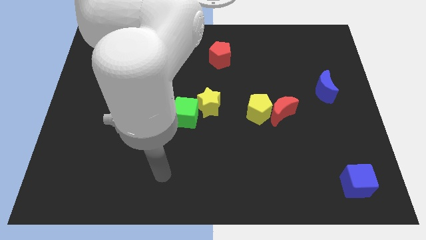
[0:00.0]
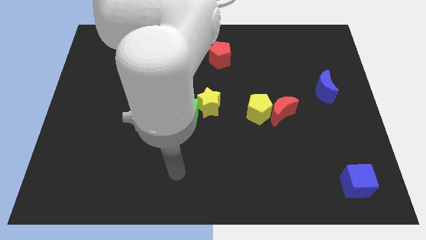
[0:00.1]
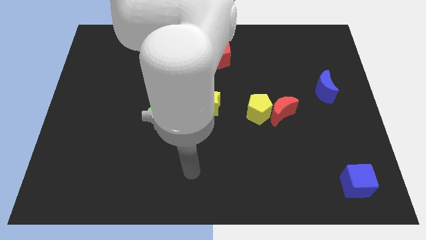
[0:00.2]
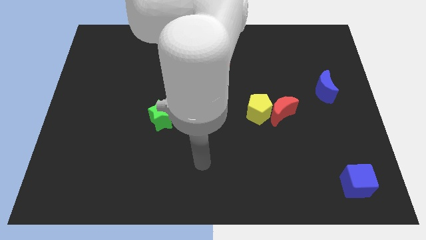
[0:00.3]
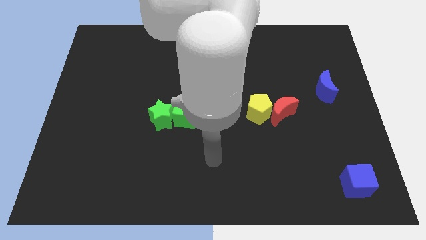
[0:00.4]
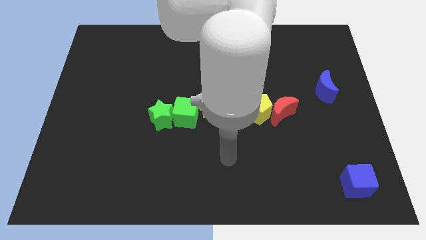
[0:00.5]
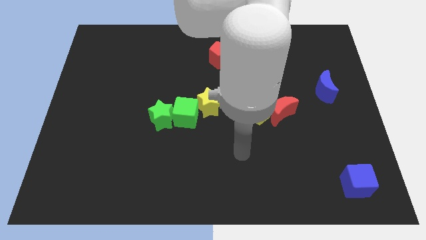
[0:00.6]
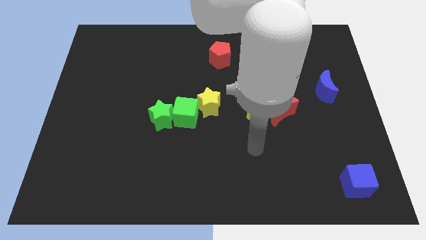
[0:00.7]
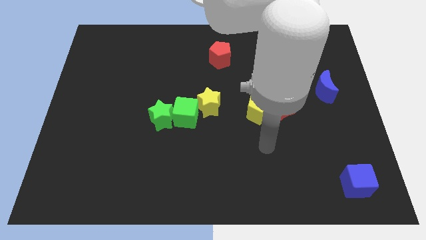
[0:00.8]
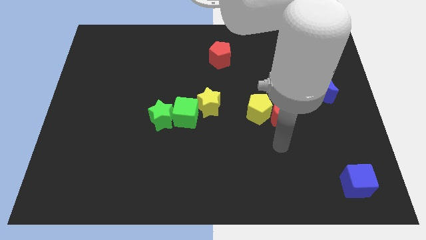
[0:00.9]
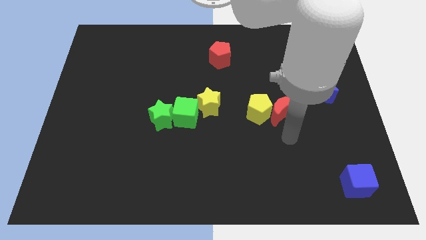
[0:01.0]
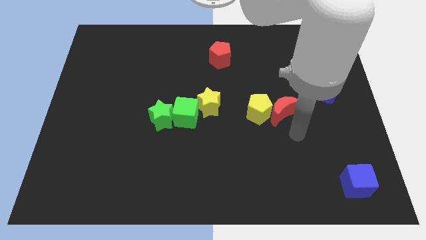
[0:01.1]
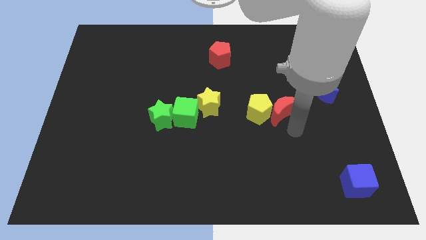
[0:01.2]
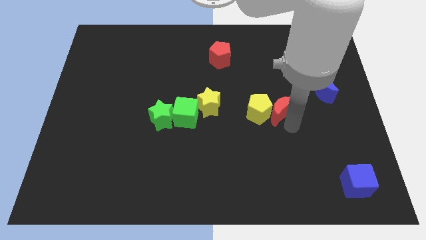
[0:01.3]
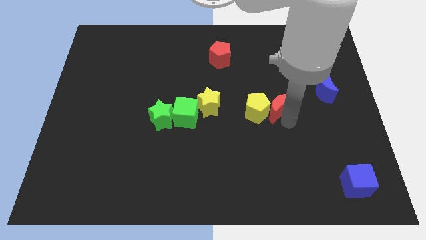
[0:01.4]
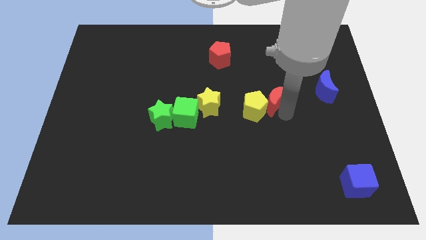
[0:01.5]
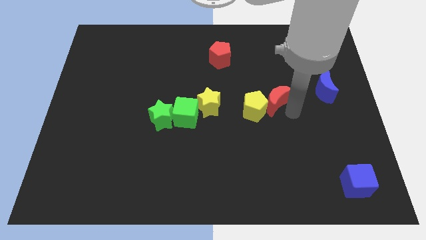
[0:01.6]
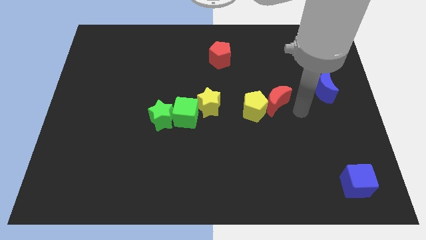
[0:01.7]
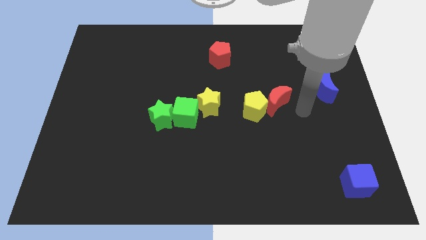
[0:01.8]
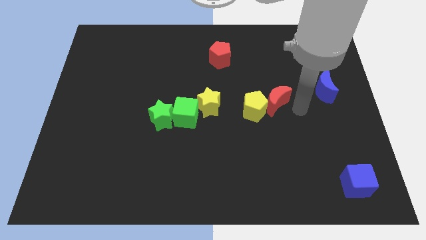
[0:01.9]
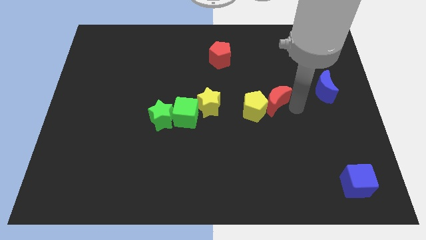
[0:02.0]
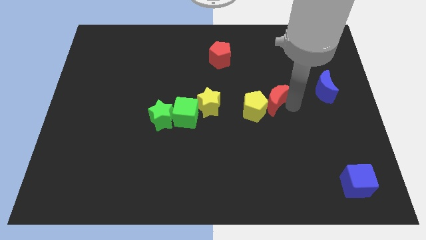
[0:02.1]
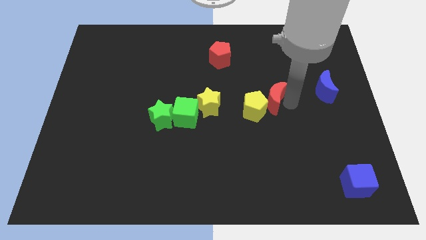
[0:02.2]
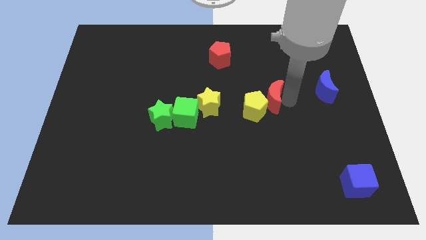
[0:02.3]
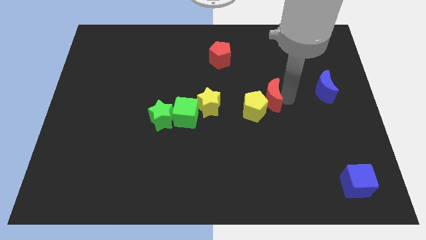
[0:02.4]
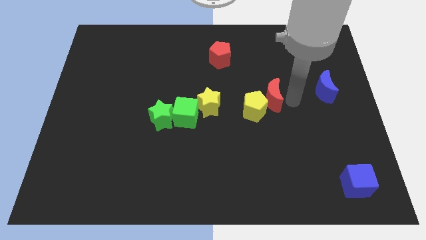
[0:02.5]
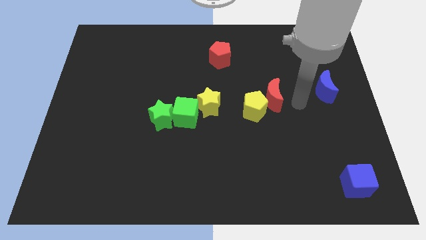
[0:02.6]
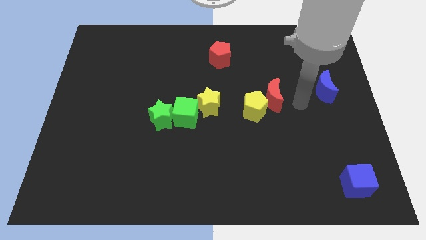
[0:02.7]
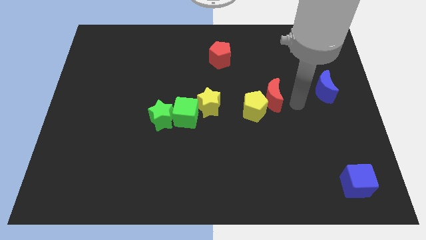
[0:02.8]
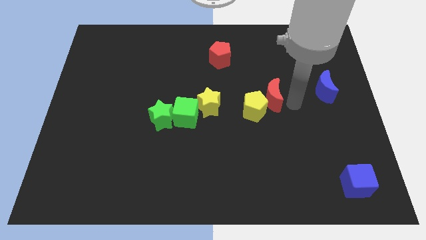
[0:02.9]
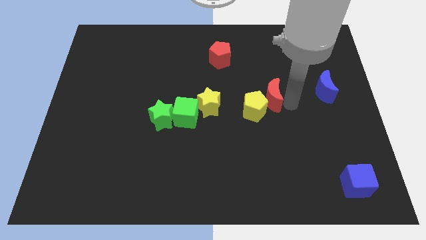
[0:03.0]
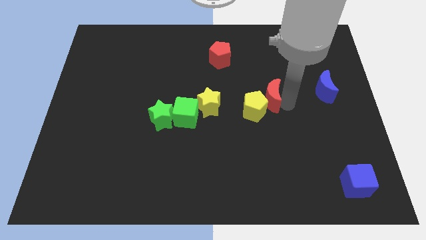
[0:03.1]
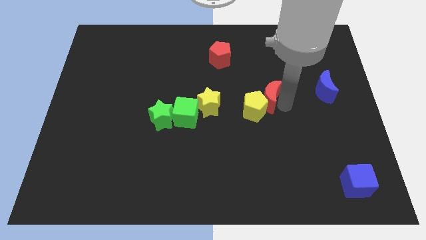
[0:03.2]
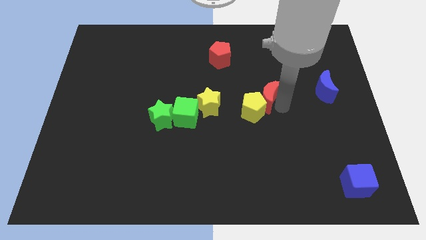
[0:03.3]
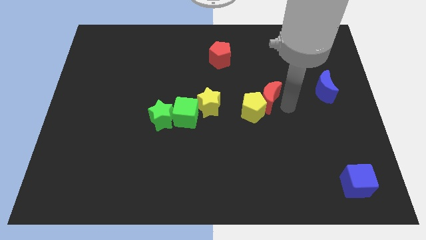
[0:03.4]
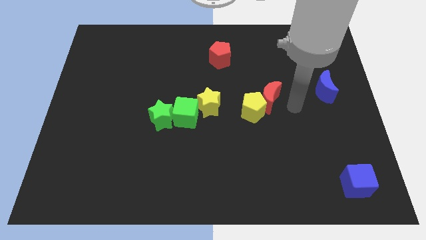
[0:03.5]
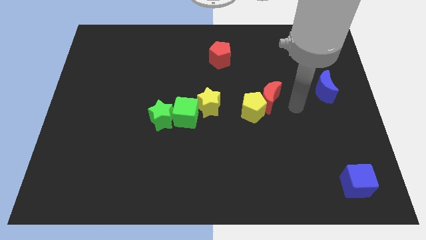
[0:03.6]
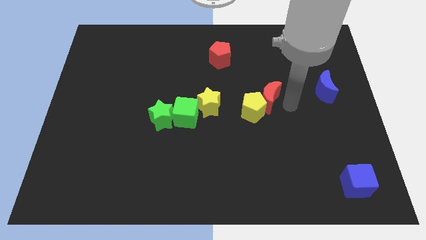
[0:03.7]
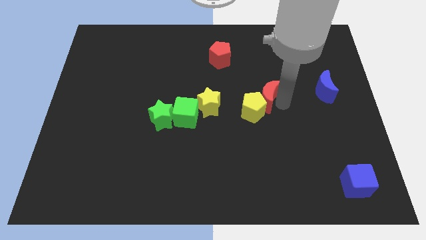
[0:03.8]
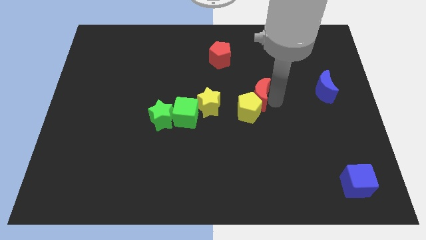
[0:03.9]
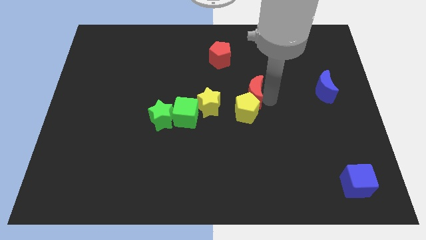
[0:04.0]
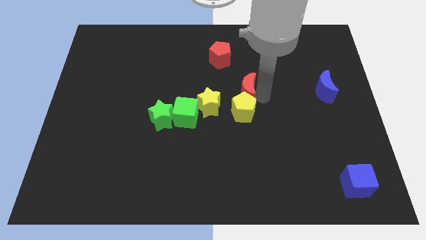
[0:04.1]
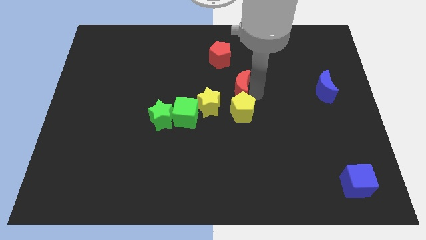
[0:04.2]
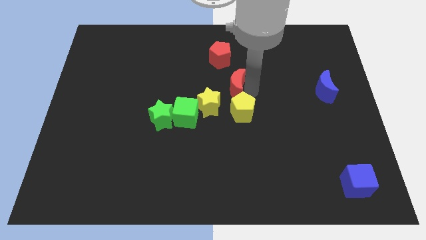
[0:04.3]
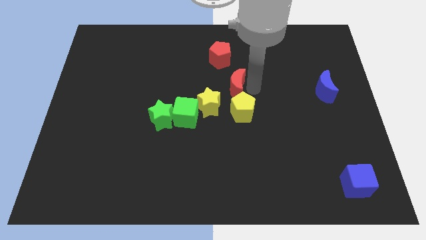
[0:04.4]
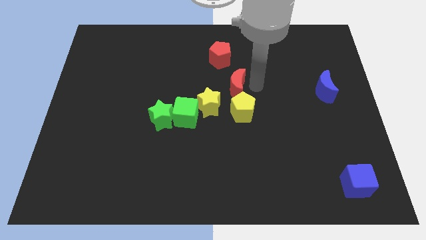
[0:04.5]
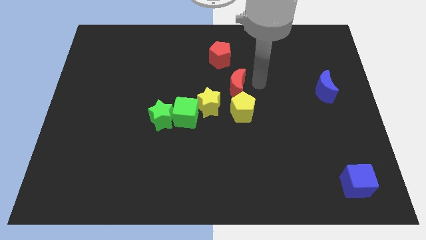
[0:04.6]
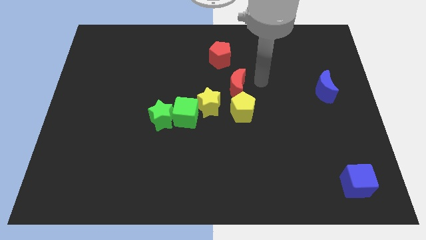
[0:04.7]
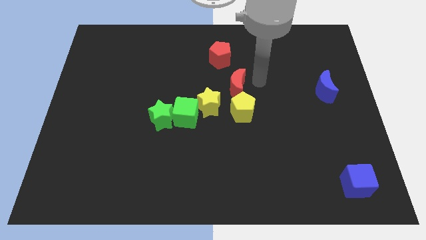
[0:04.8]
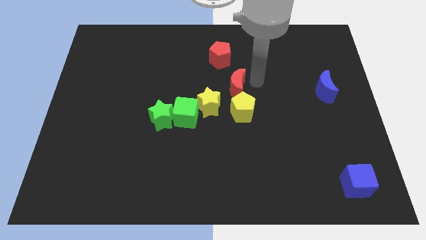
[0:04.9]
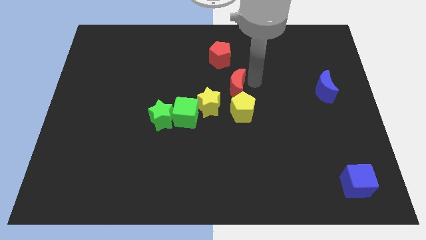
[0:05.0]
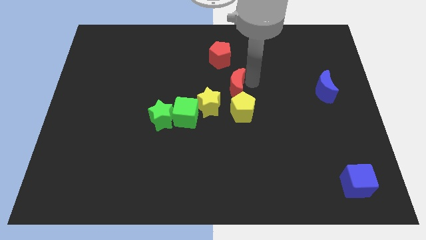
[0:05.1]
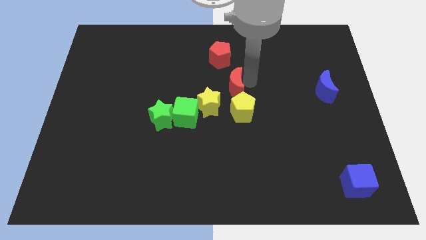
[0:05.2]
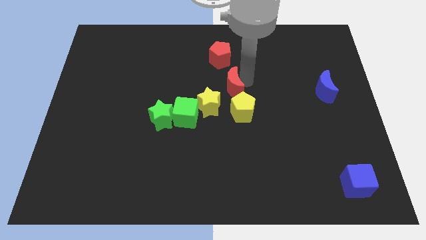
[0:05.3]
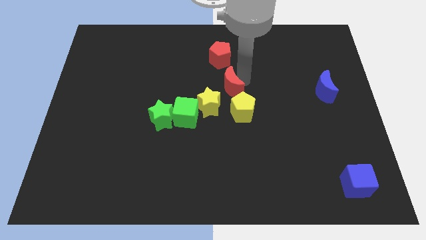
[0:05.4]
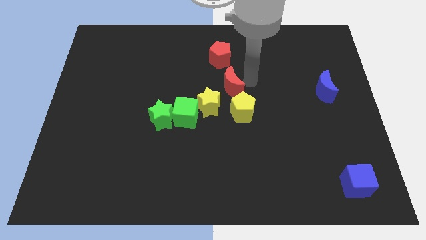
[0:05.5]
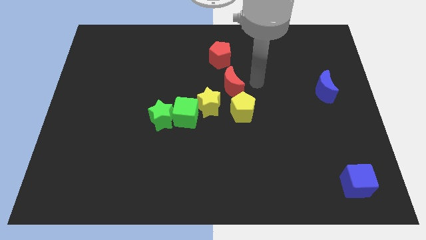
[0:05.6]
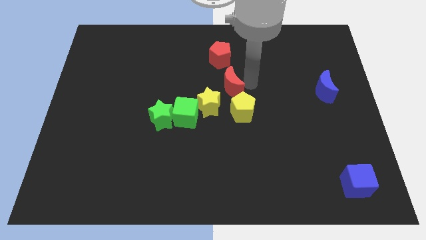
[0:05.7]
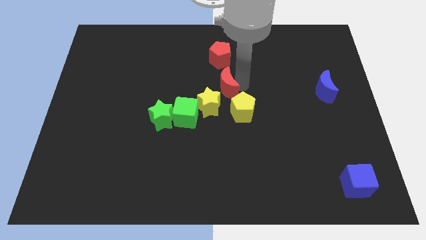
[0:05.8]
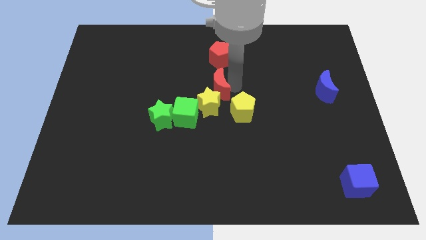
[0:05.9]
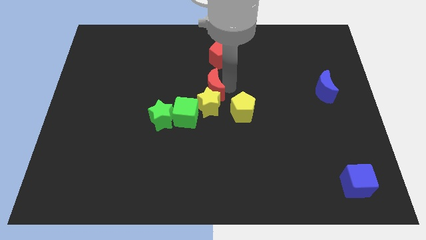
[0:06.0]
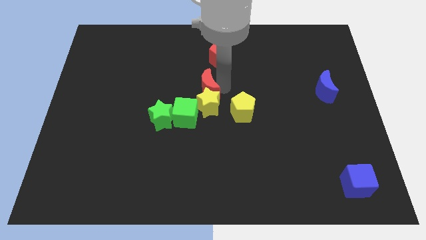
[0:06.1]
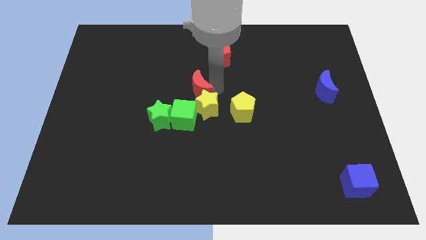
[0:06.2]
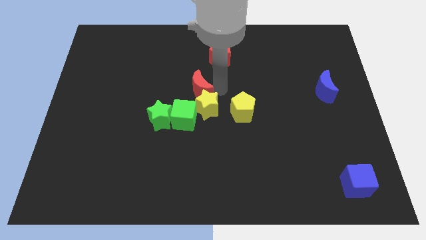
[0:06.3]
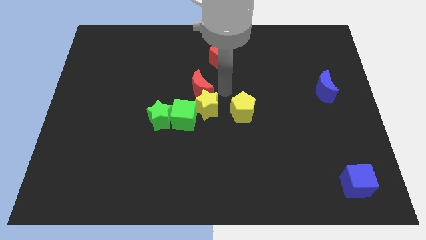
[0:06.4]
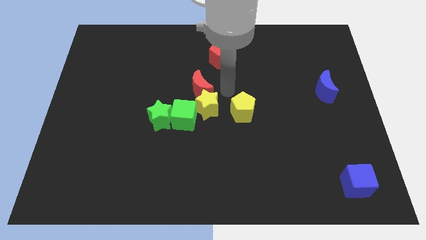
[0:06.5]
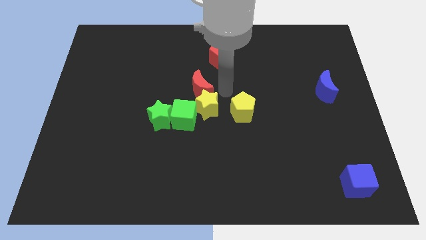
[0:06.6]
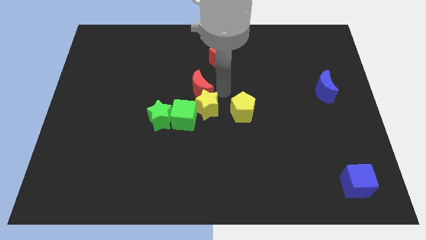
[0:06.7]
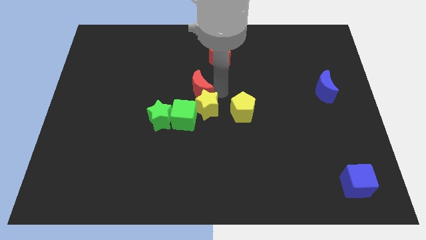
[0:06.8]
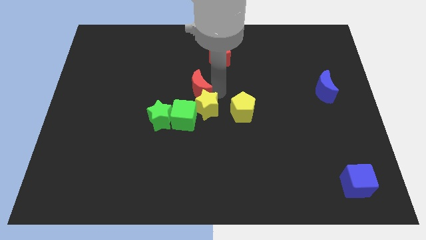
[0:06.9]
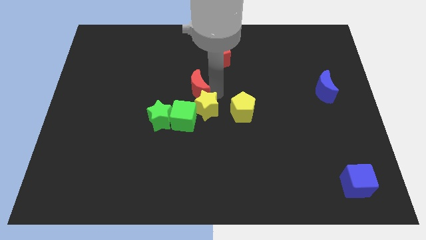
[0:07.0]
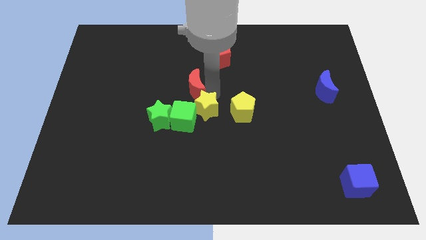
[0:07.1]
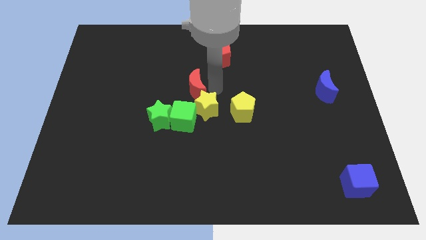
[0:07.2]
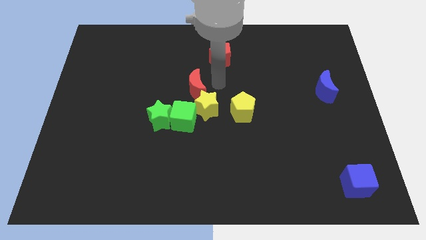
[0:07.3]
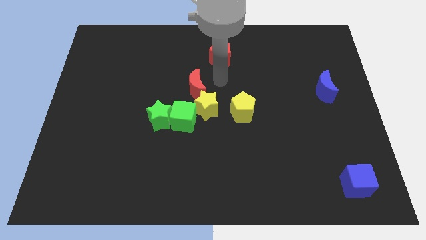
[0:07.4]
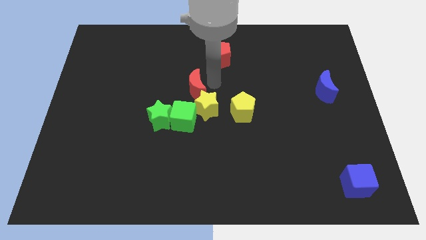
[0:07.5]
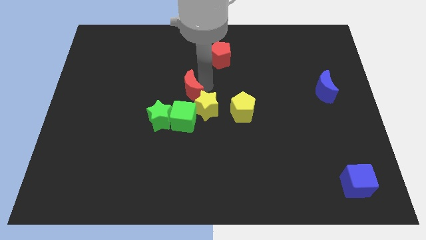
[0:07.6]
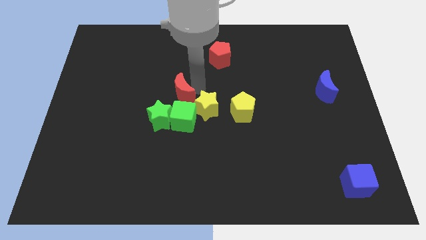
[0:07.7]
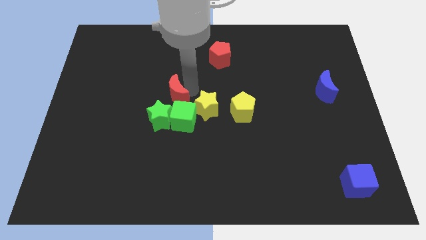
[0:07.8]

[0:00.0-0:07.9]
move the red moon to the top left side of the green cube
